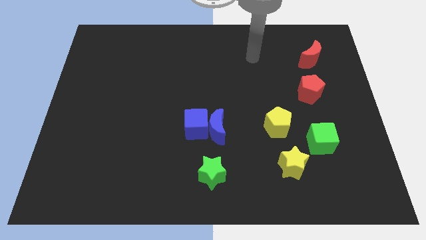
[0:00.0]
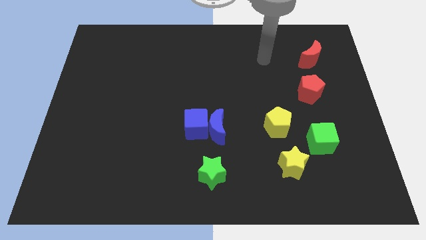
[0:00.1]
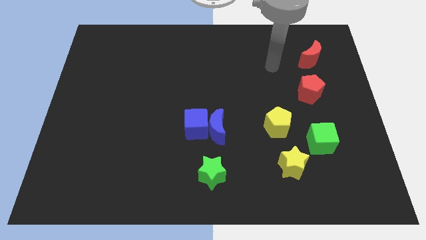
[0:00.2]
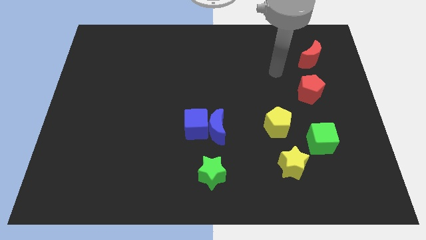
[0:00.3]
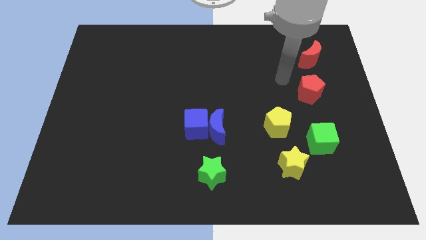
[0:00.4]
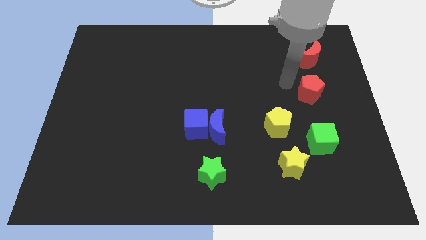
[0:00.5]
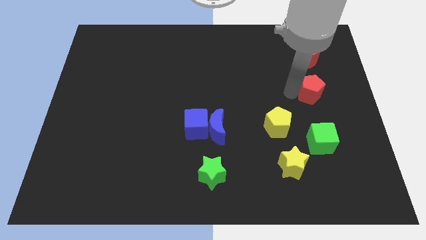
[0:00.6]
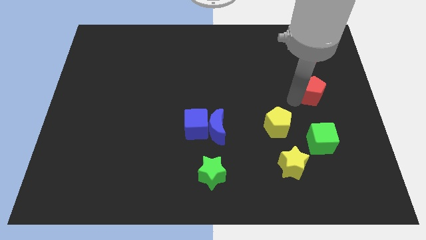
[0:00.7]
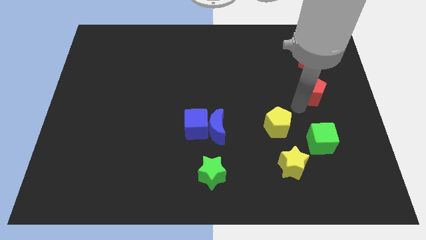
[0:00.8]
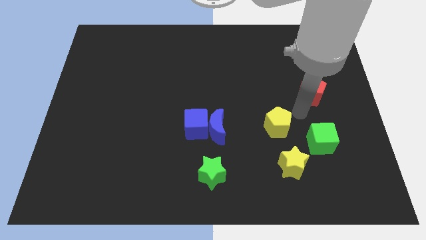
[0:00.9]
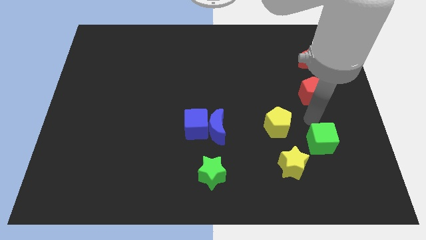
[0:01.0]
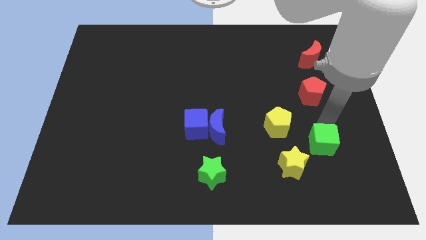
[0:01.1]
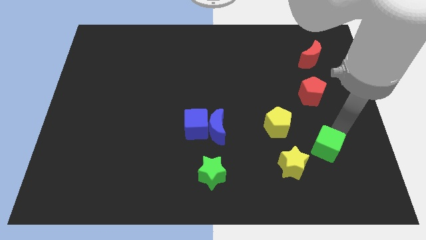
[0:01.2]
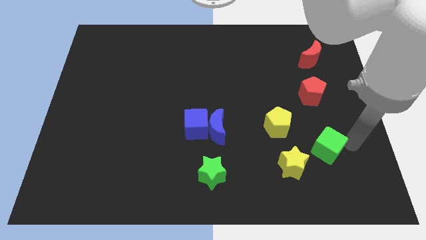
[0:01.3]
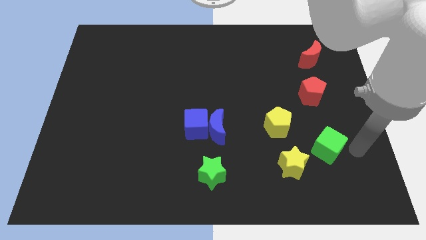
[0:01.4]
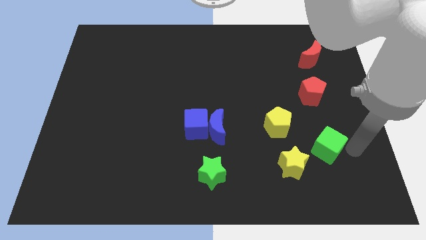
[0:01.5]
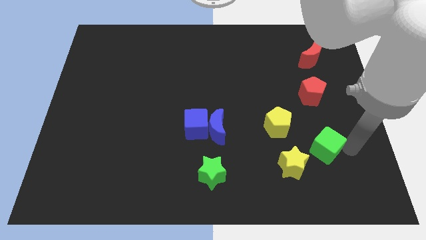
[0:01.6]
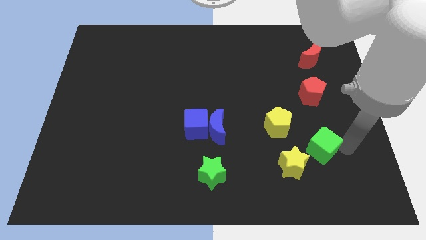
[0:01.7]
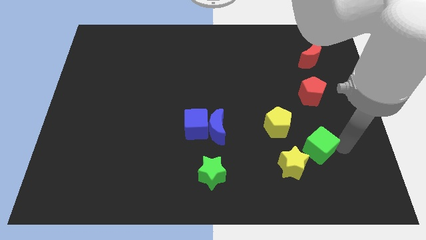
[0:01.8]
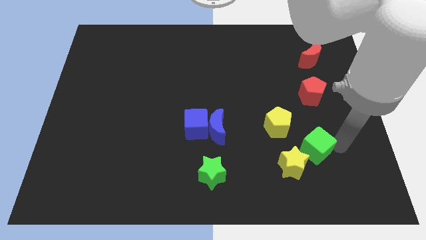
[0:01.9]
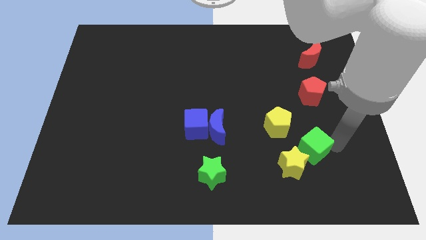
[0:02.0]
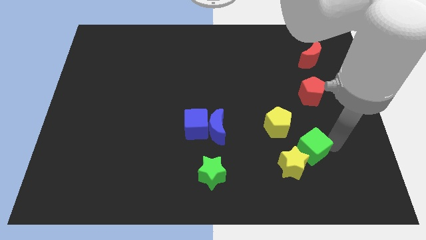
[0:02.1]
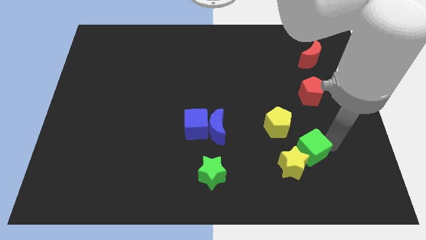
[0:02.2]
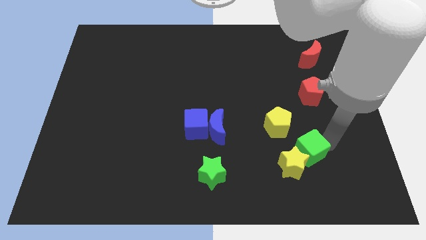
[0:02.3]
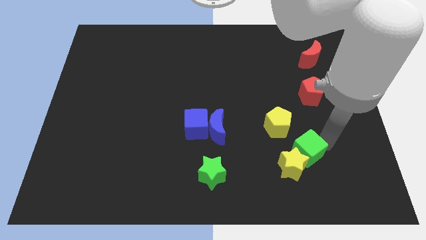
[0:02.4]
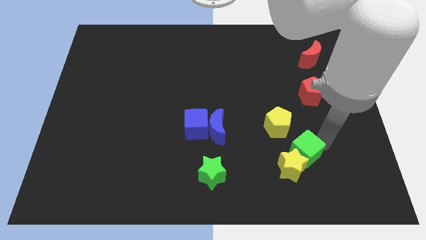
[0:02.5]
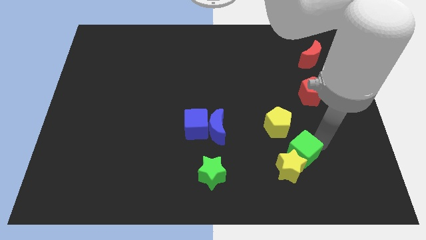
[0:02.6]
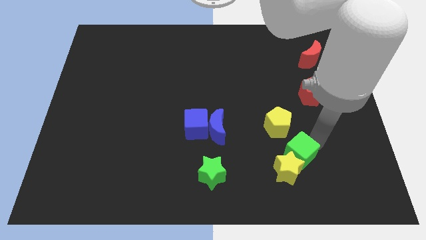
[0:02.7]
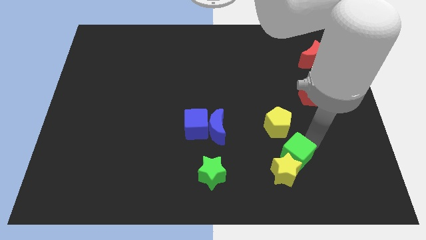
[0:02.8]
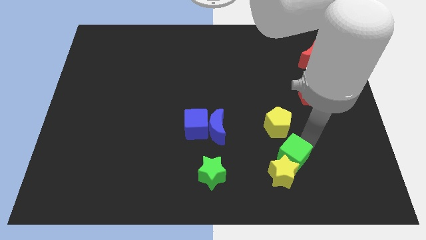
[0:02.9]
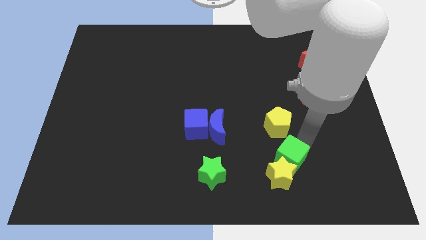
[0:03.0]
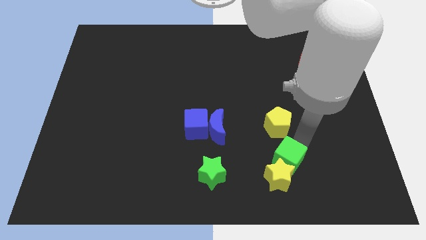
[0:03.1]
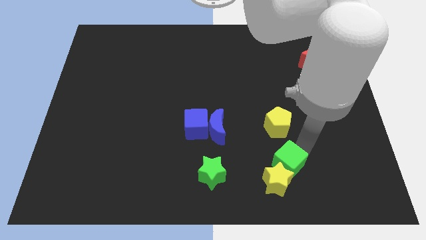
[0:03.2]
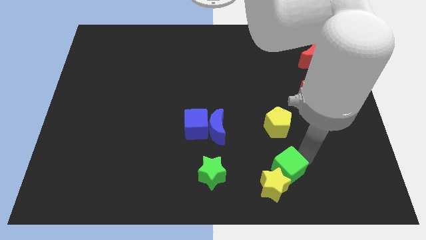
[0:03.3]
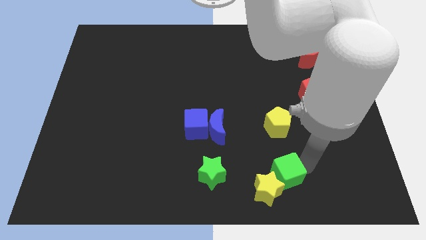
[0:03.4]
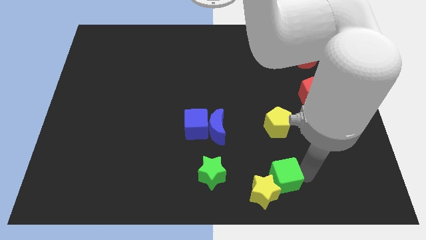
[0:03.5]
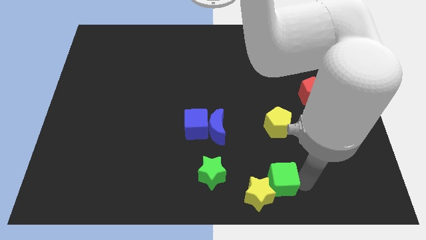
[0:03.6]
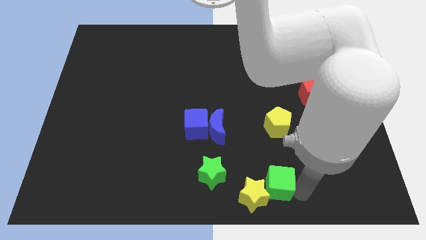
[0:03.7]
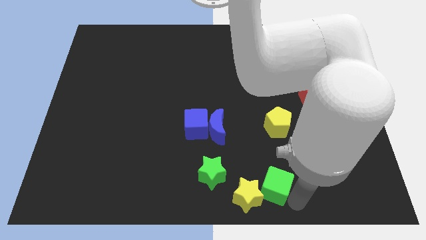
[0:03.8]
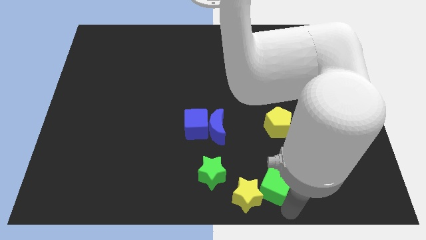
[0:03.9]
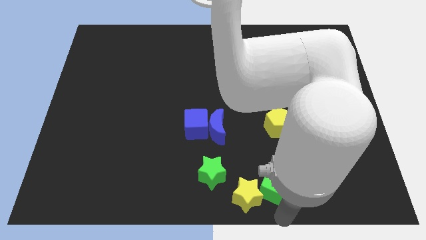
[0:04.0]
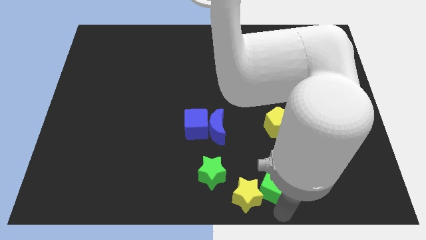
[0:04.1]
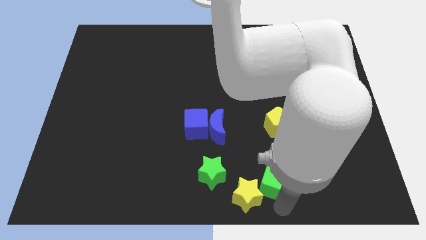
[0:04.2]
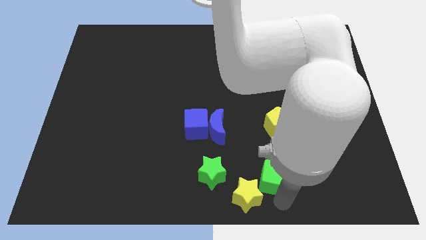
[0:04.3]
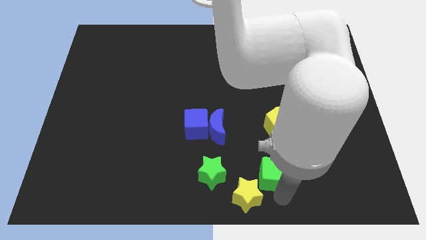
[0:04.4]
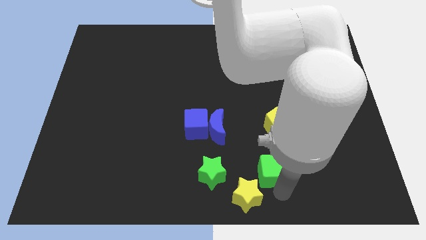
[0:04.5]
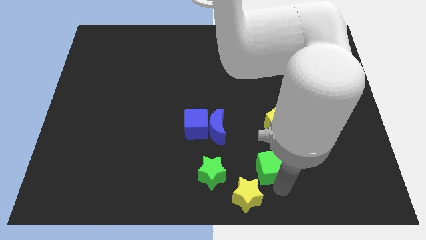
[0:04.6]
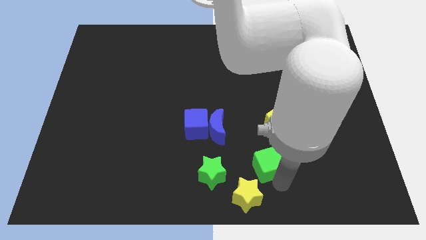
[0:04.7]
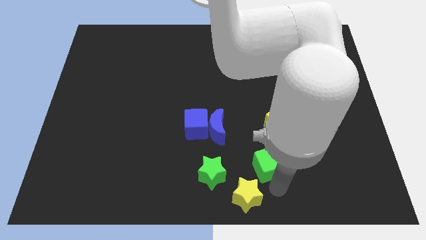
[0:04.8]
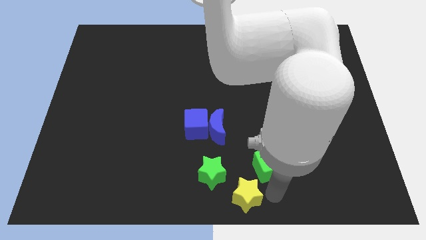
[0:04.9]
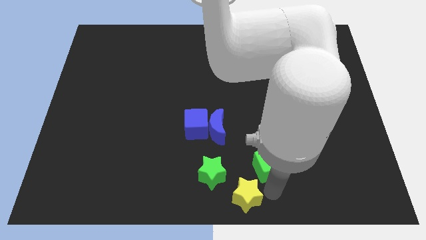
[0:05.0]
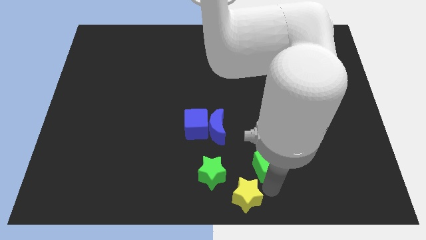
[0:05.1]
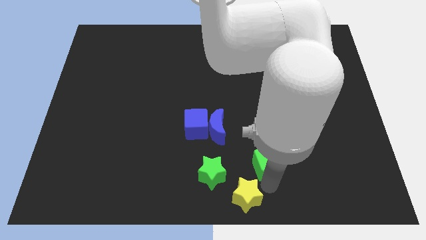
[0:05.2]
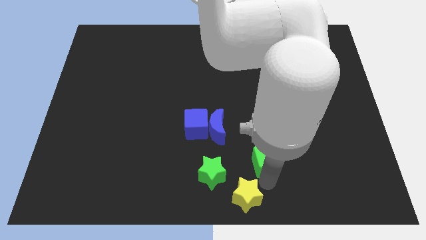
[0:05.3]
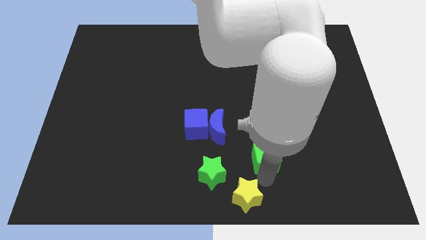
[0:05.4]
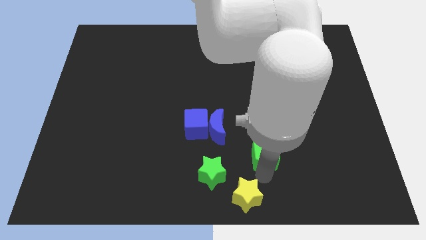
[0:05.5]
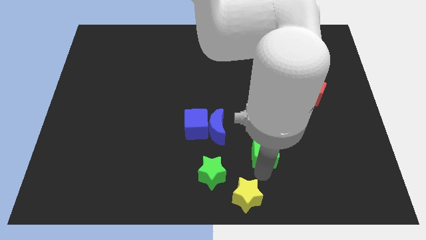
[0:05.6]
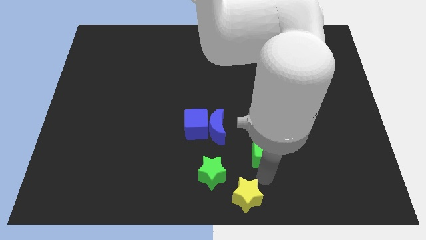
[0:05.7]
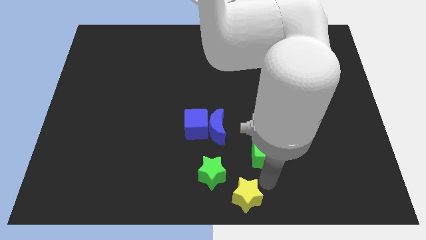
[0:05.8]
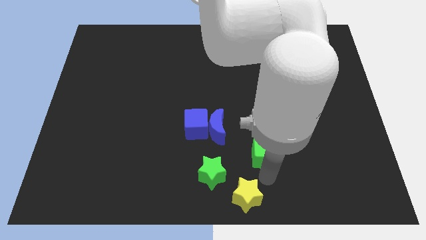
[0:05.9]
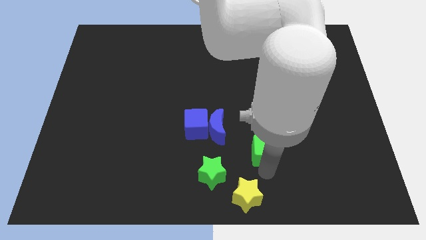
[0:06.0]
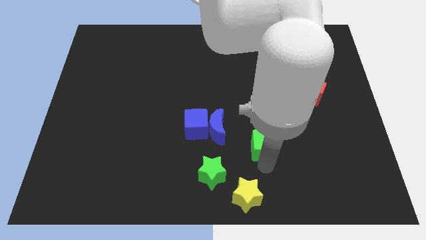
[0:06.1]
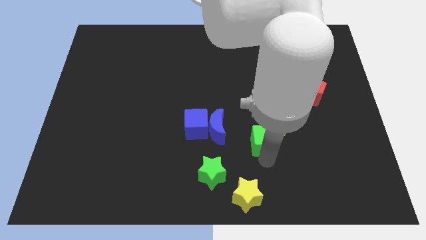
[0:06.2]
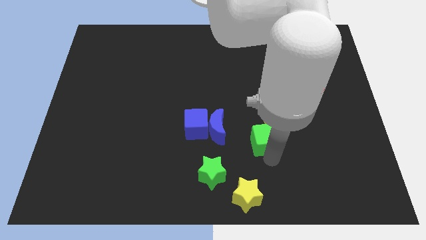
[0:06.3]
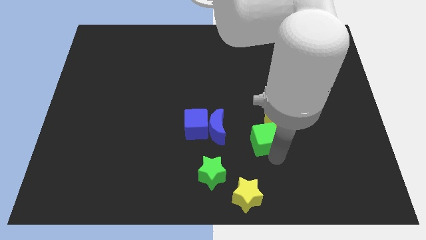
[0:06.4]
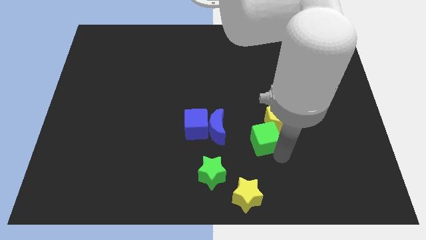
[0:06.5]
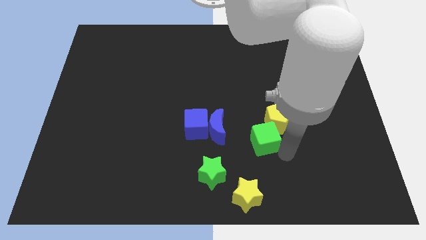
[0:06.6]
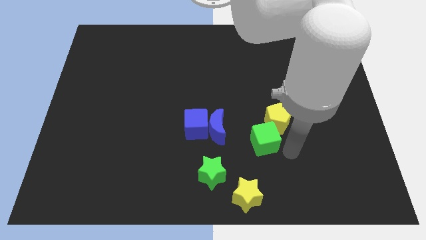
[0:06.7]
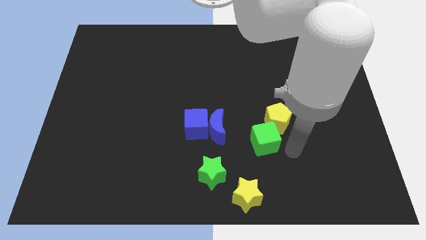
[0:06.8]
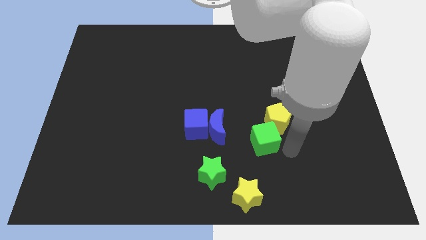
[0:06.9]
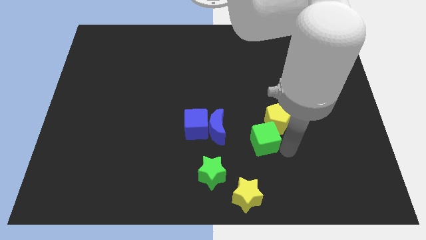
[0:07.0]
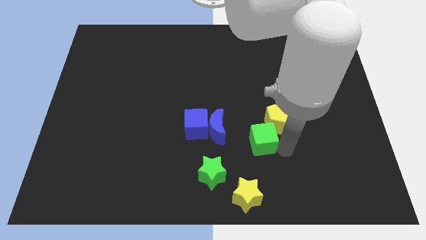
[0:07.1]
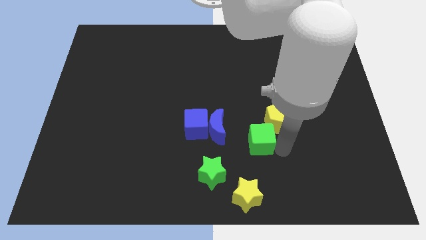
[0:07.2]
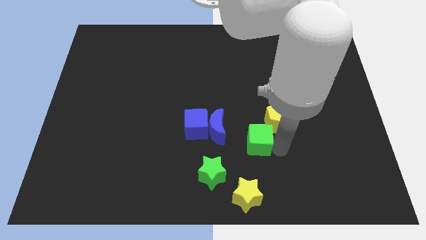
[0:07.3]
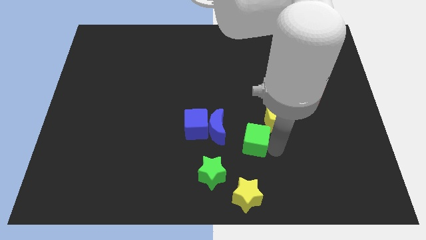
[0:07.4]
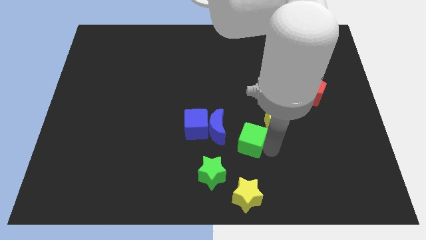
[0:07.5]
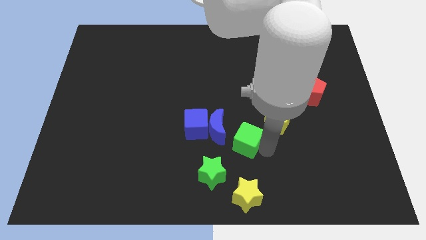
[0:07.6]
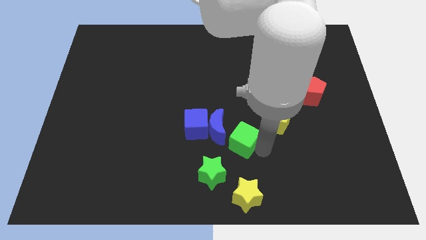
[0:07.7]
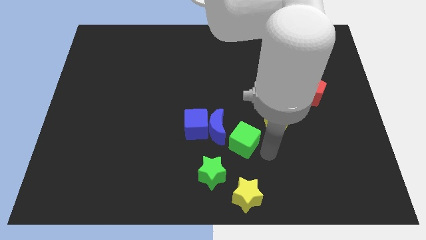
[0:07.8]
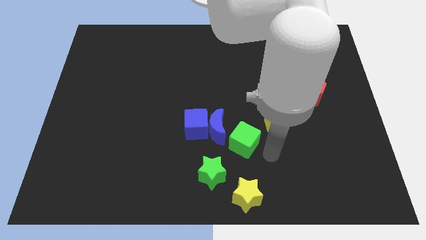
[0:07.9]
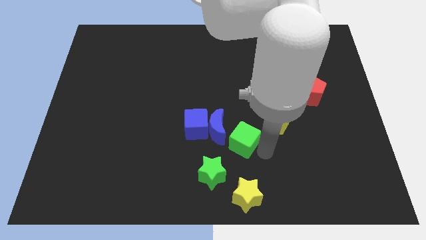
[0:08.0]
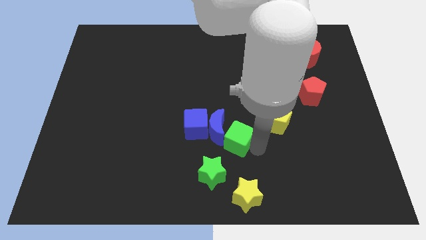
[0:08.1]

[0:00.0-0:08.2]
move the green cube to the blue moon
